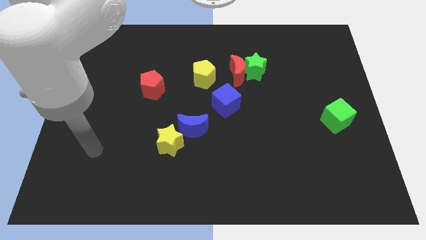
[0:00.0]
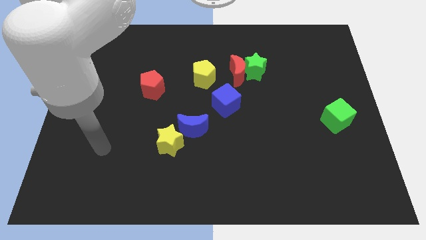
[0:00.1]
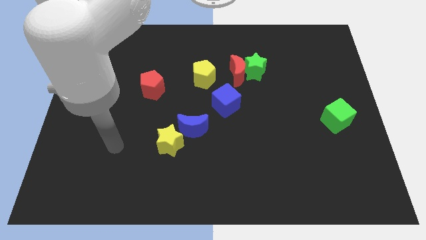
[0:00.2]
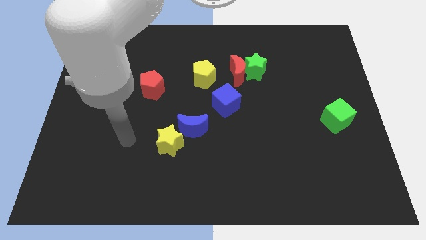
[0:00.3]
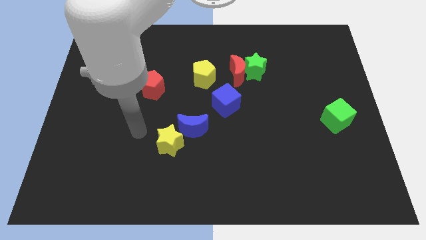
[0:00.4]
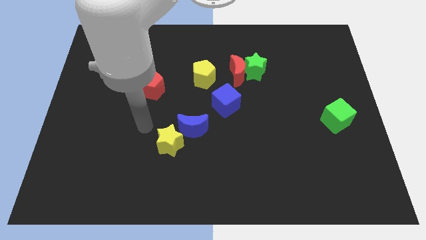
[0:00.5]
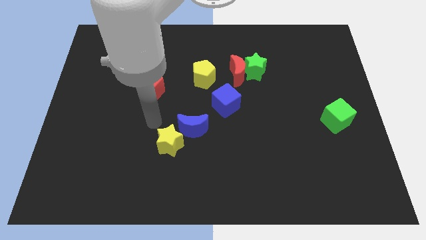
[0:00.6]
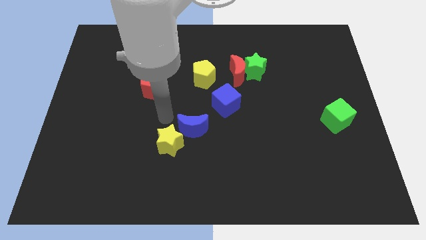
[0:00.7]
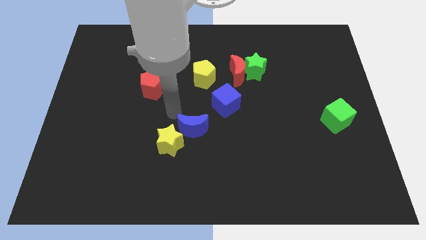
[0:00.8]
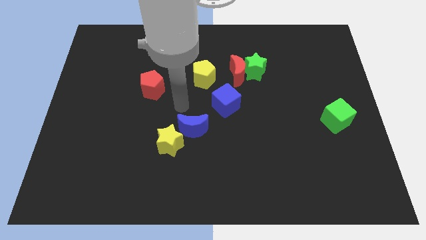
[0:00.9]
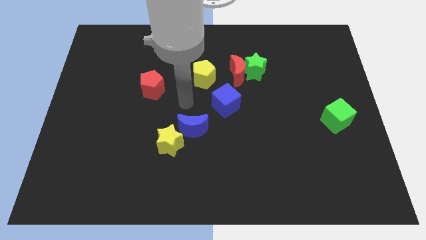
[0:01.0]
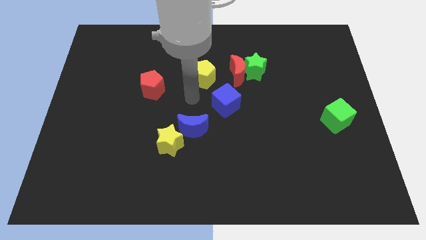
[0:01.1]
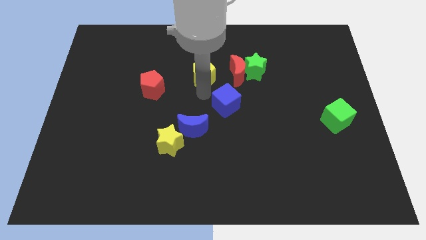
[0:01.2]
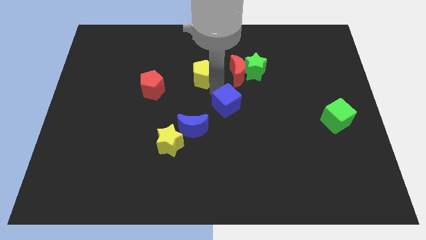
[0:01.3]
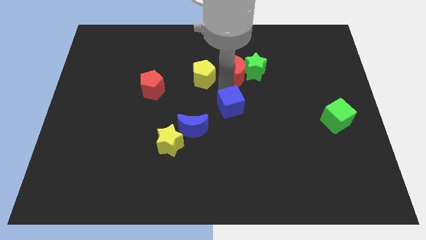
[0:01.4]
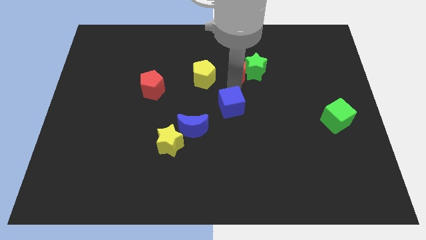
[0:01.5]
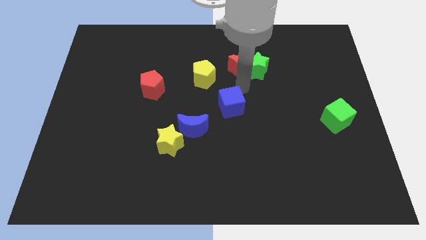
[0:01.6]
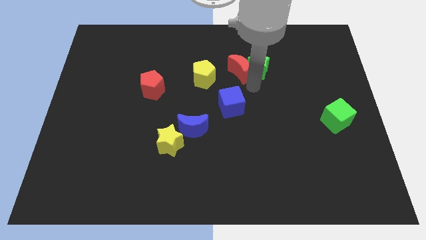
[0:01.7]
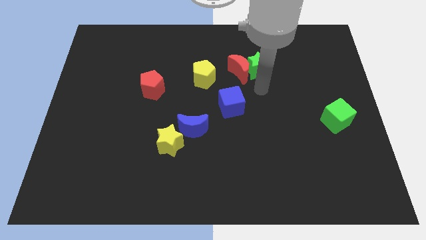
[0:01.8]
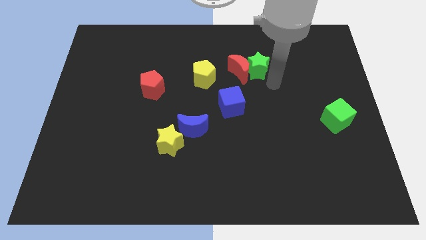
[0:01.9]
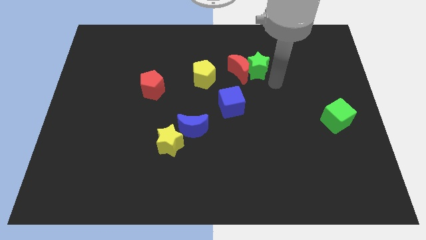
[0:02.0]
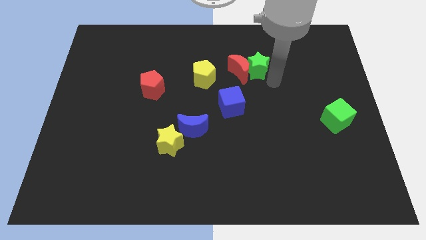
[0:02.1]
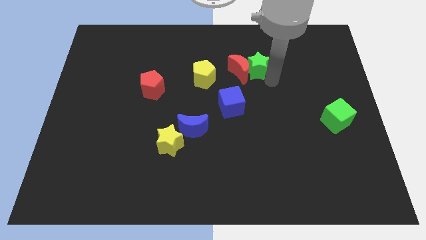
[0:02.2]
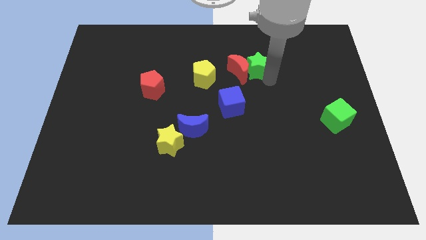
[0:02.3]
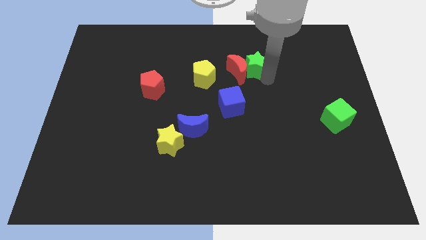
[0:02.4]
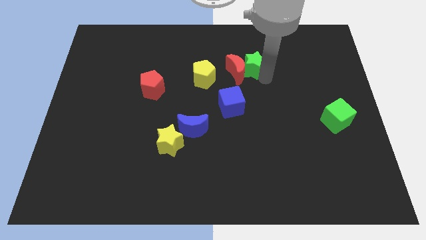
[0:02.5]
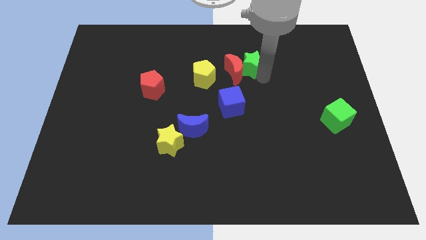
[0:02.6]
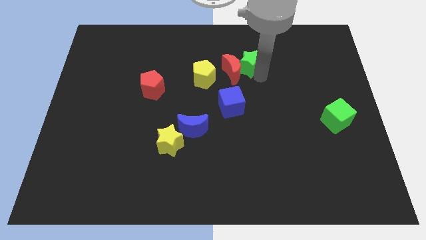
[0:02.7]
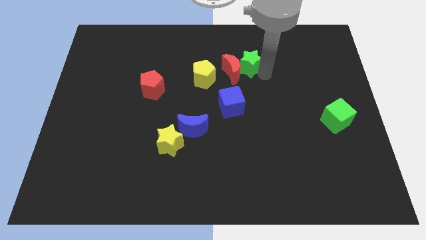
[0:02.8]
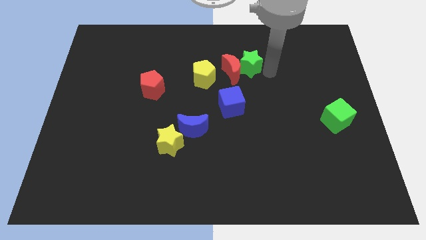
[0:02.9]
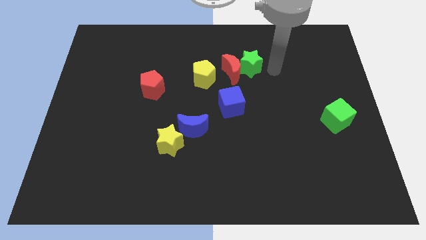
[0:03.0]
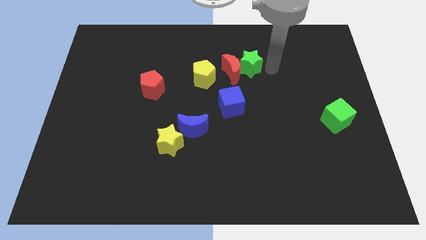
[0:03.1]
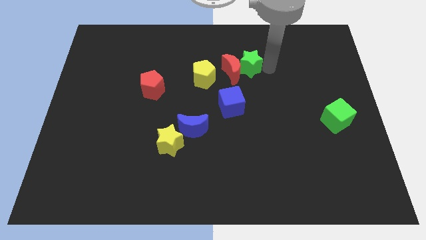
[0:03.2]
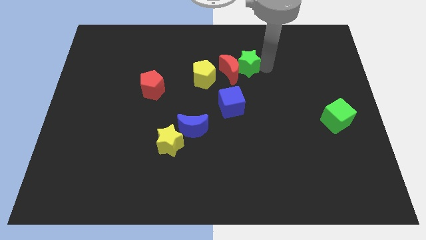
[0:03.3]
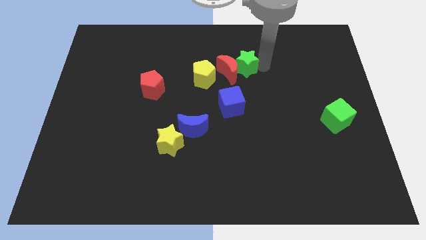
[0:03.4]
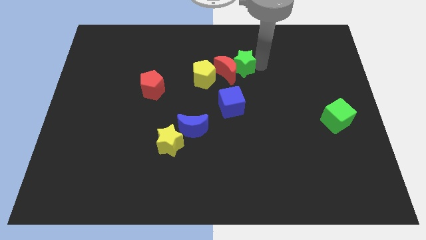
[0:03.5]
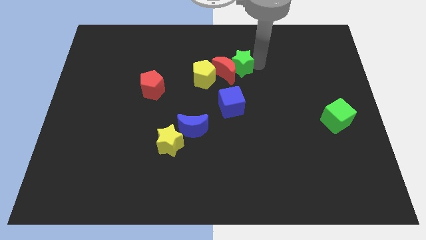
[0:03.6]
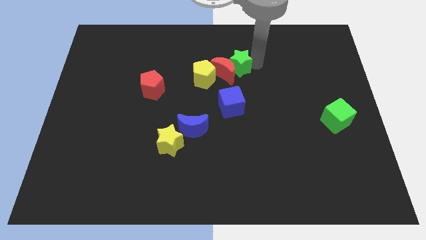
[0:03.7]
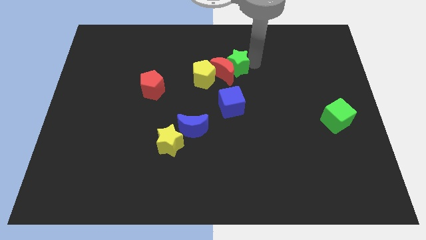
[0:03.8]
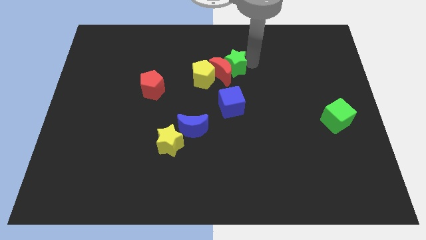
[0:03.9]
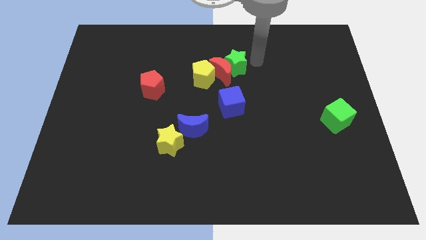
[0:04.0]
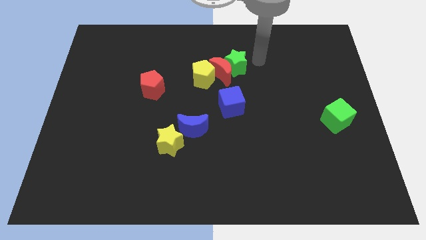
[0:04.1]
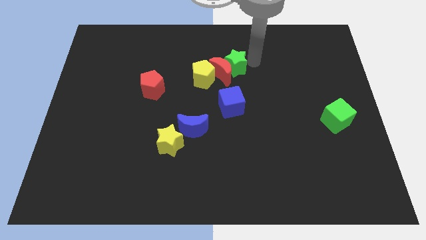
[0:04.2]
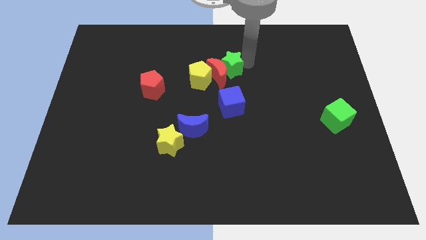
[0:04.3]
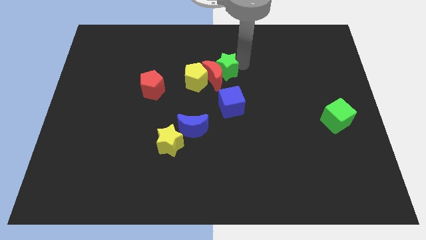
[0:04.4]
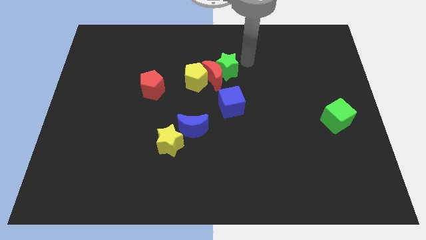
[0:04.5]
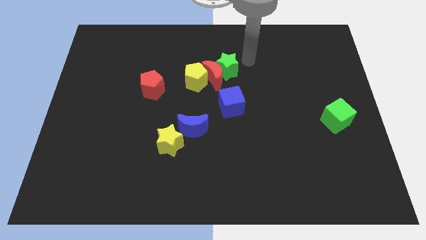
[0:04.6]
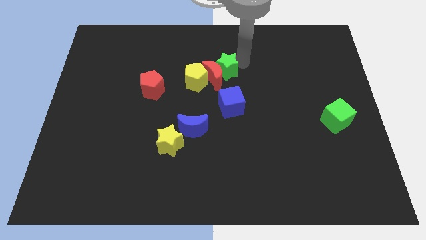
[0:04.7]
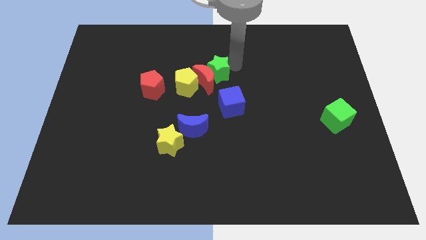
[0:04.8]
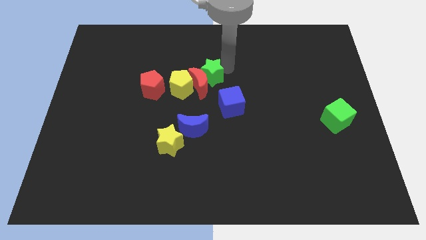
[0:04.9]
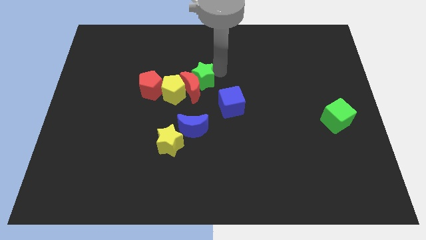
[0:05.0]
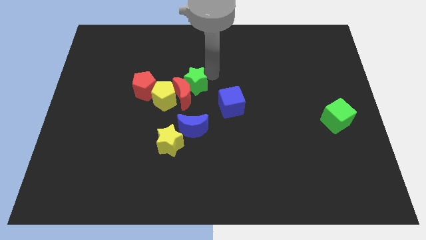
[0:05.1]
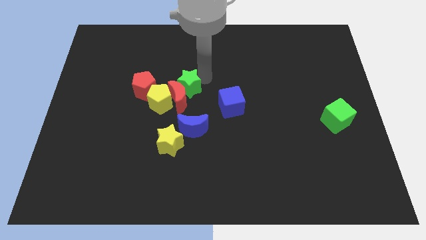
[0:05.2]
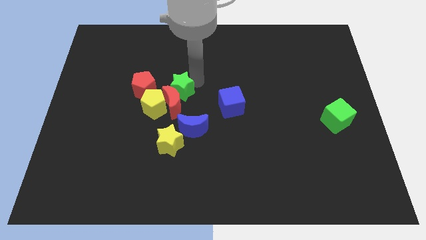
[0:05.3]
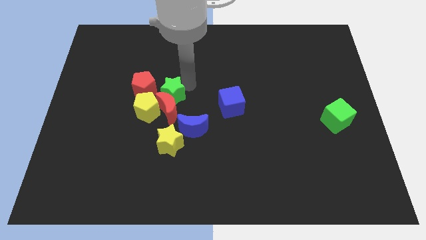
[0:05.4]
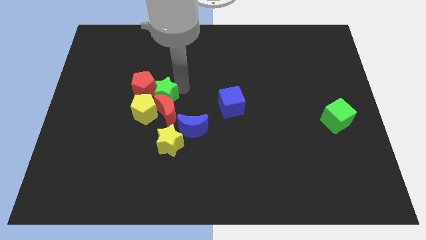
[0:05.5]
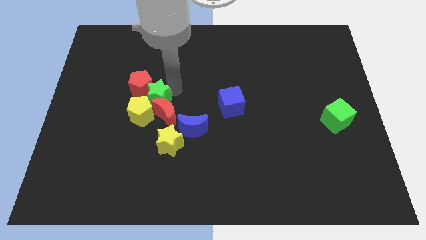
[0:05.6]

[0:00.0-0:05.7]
push the green star close to the yellow pentagon

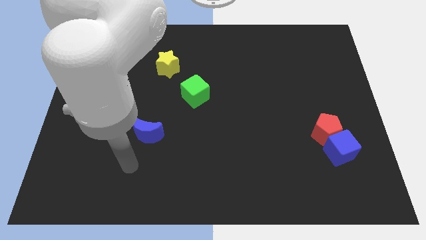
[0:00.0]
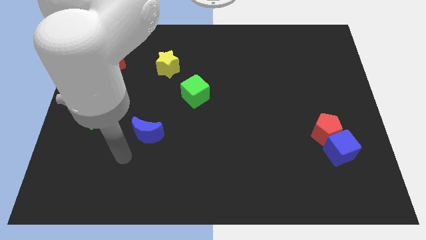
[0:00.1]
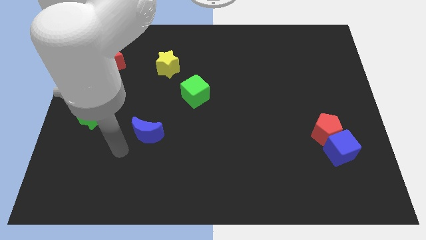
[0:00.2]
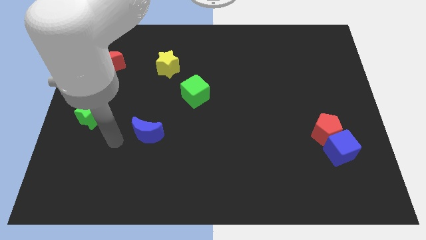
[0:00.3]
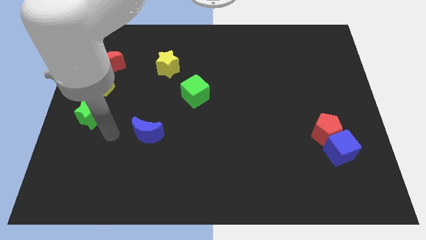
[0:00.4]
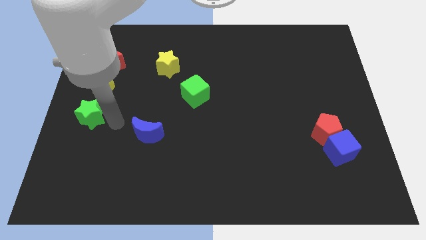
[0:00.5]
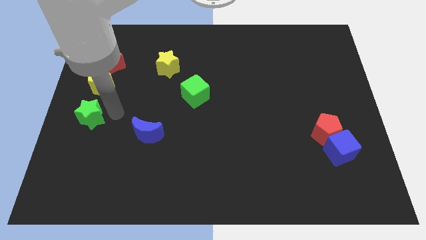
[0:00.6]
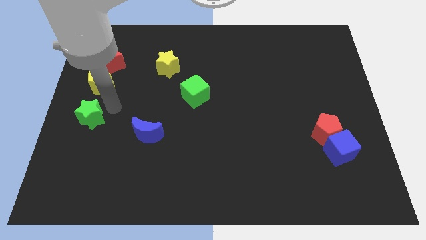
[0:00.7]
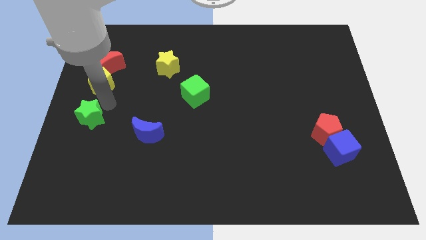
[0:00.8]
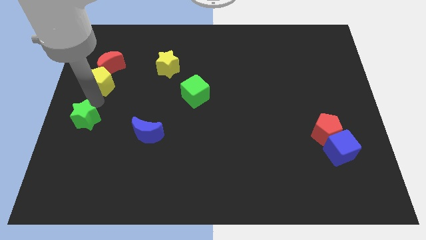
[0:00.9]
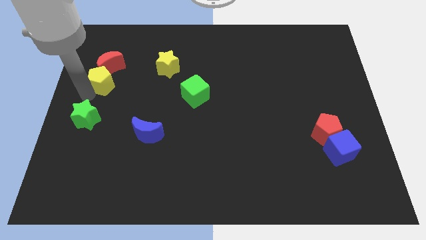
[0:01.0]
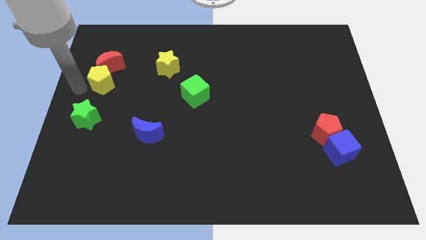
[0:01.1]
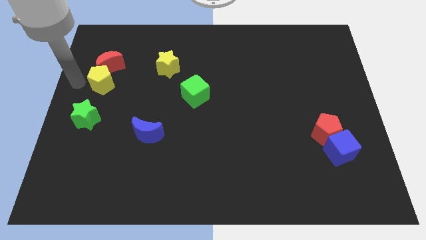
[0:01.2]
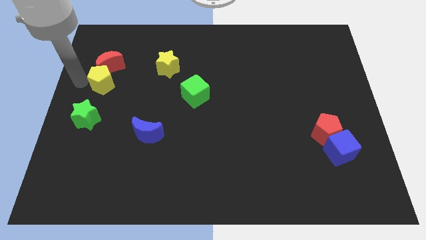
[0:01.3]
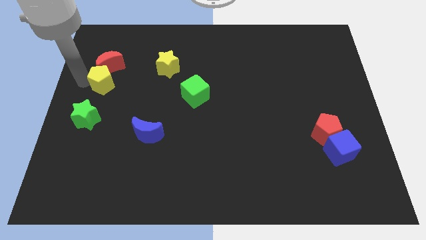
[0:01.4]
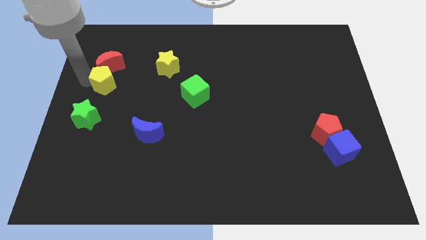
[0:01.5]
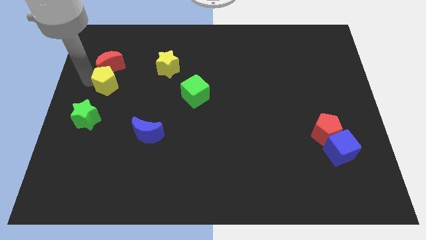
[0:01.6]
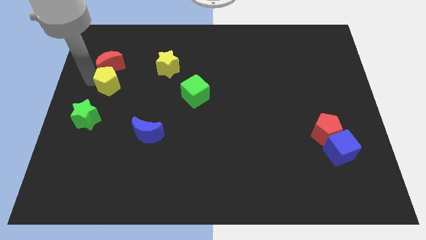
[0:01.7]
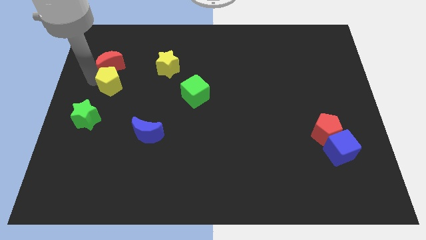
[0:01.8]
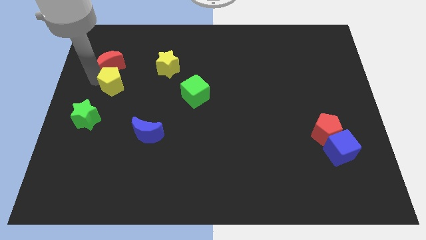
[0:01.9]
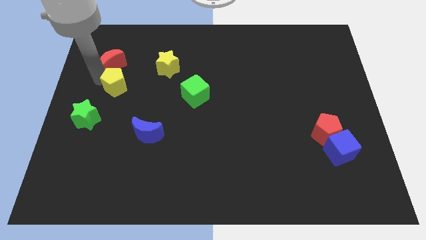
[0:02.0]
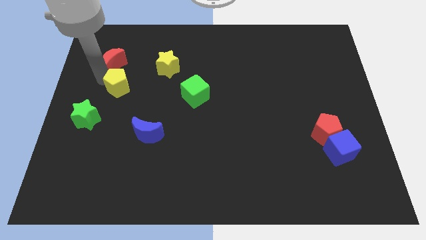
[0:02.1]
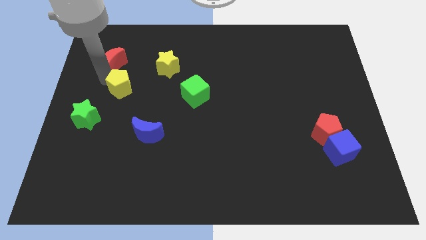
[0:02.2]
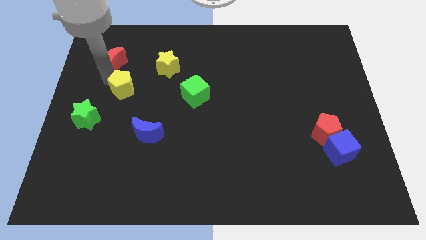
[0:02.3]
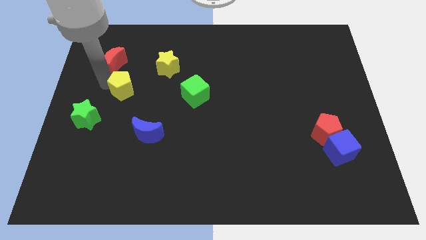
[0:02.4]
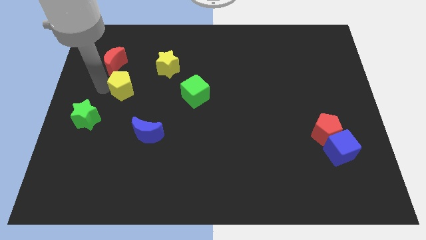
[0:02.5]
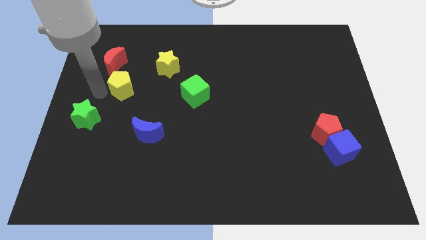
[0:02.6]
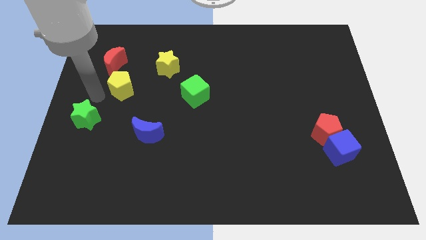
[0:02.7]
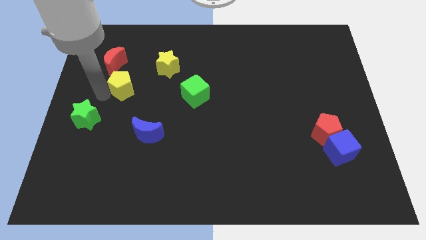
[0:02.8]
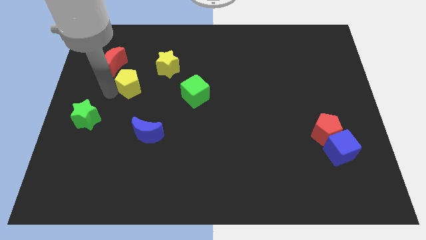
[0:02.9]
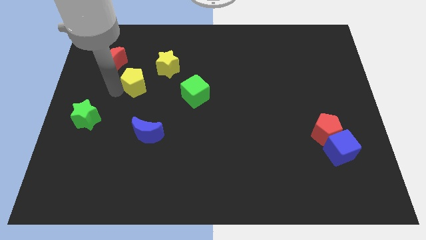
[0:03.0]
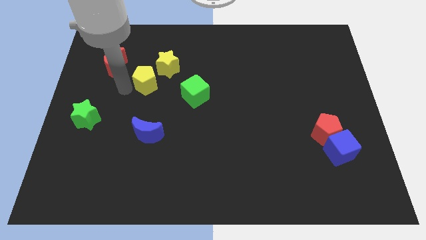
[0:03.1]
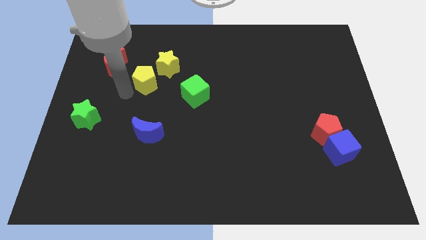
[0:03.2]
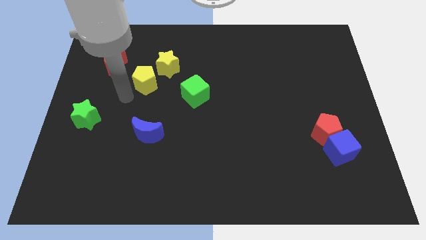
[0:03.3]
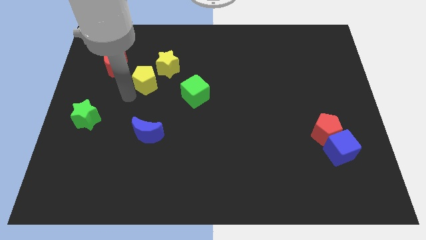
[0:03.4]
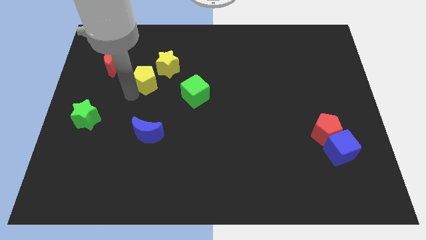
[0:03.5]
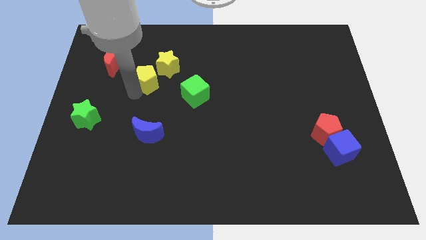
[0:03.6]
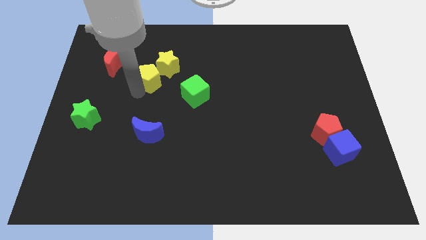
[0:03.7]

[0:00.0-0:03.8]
slide the yellow pentagon towards the yellow star
